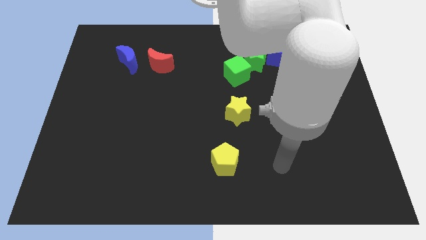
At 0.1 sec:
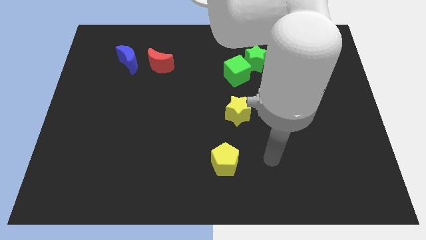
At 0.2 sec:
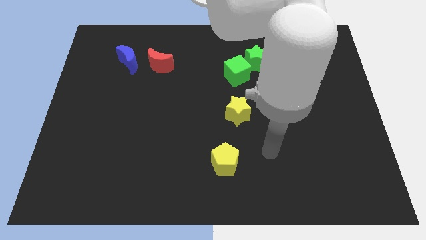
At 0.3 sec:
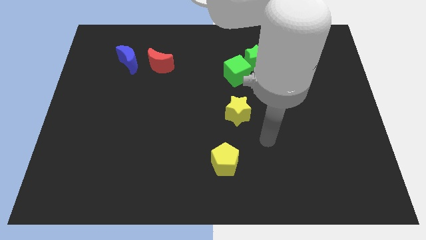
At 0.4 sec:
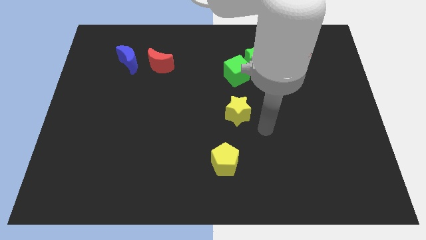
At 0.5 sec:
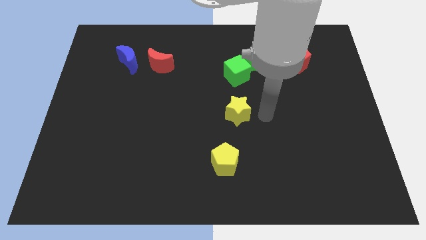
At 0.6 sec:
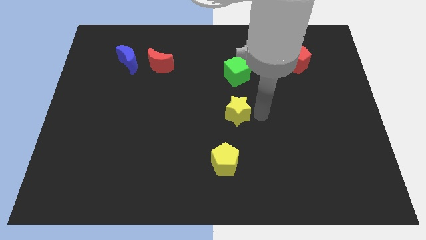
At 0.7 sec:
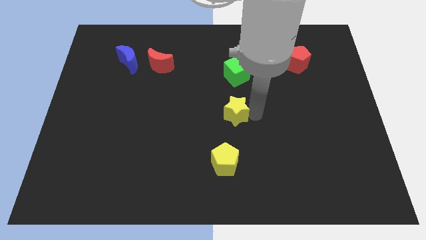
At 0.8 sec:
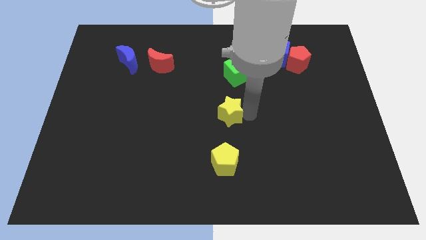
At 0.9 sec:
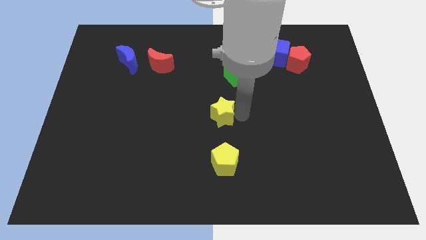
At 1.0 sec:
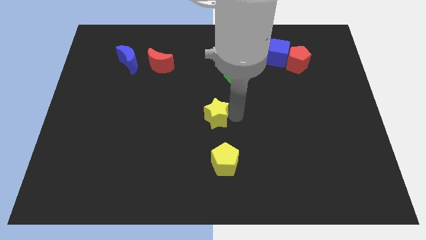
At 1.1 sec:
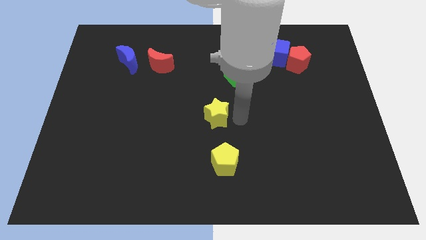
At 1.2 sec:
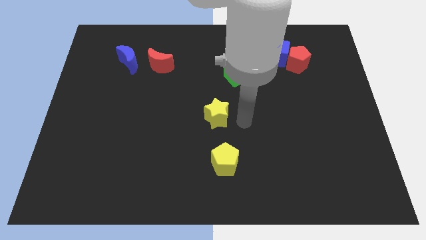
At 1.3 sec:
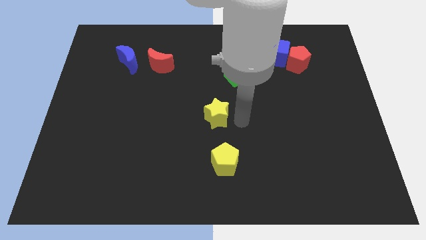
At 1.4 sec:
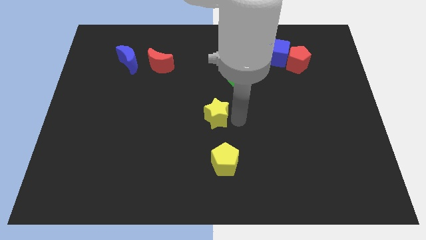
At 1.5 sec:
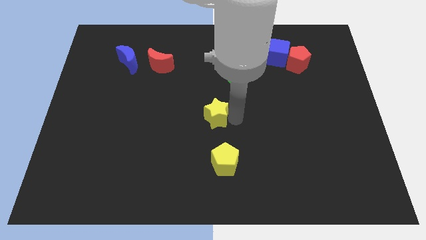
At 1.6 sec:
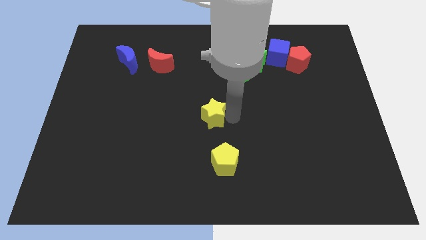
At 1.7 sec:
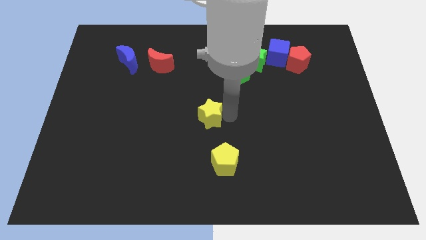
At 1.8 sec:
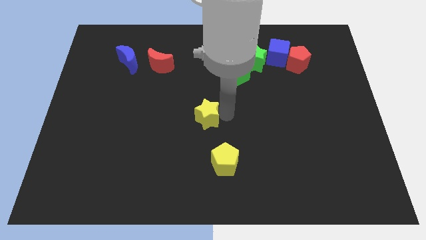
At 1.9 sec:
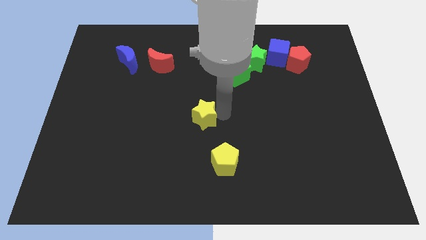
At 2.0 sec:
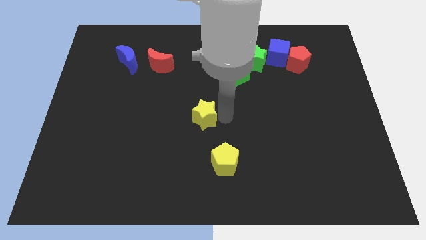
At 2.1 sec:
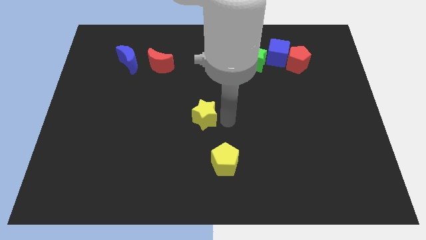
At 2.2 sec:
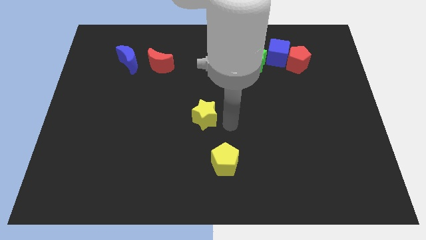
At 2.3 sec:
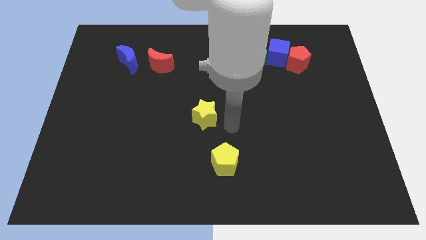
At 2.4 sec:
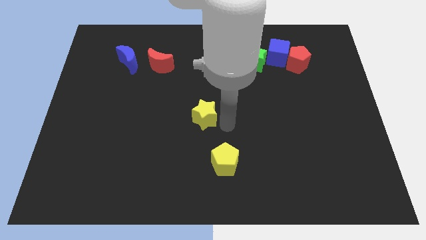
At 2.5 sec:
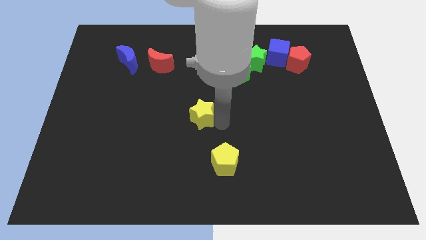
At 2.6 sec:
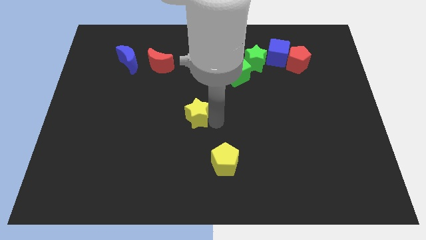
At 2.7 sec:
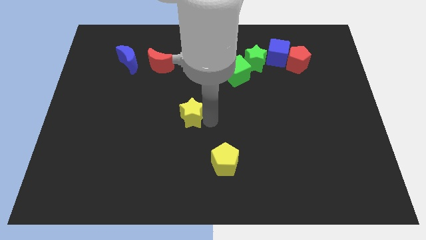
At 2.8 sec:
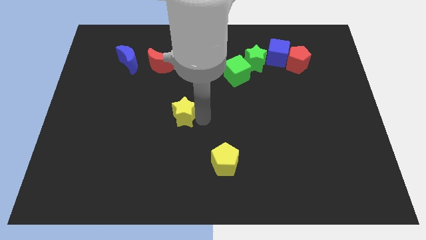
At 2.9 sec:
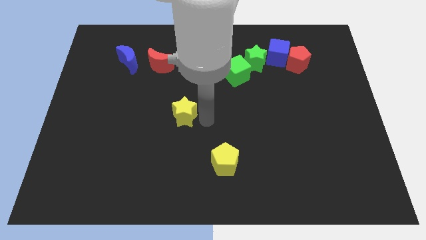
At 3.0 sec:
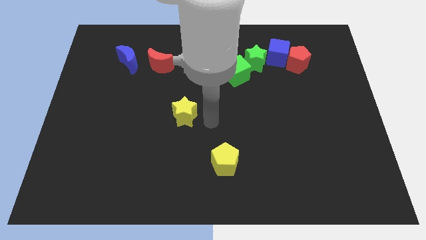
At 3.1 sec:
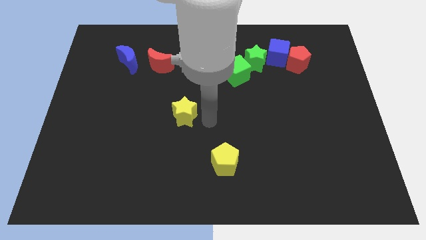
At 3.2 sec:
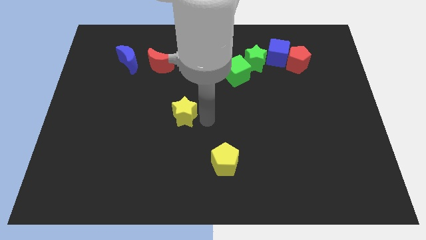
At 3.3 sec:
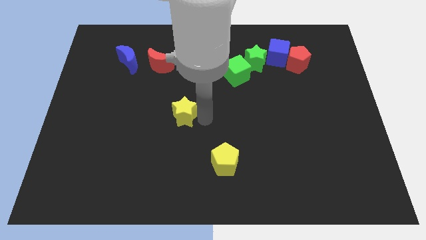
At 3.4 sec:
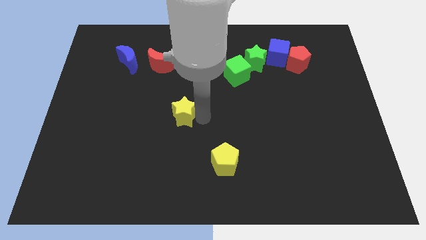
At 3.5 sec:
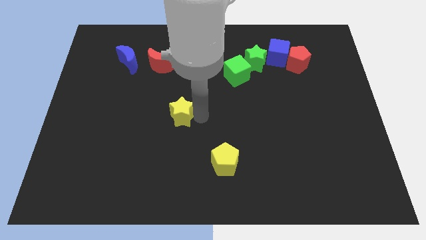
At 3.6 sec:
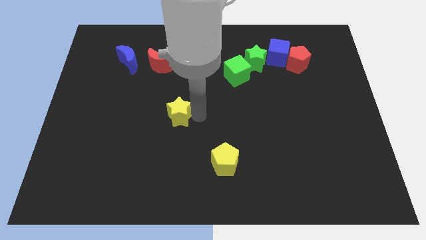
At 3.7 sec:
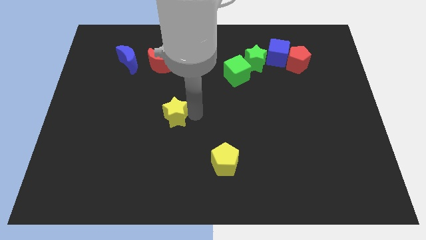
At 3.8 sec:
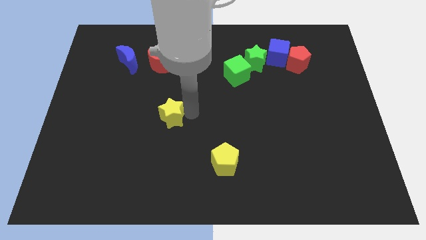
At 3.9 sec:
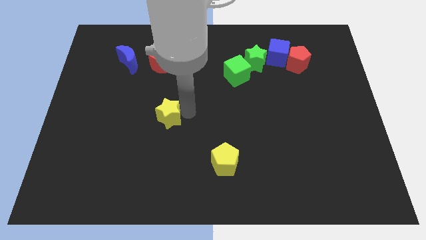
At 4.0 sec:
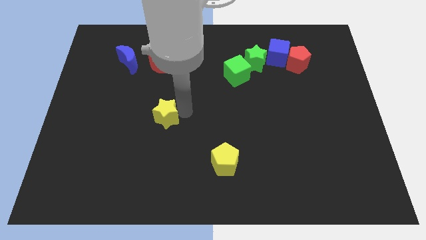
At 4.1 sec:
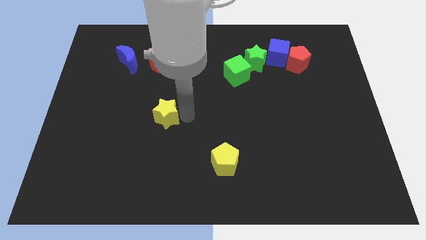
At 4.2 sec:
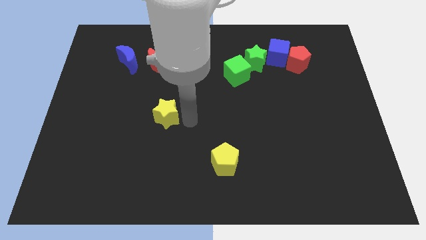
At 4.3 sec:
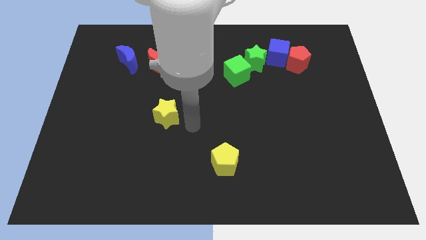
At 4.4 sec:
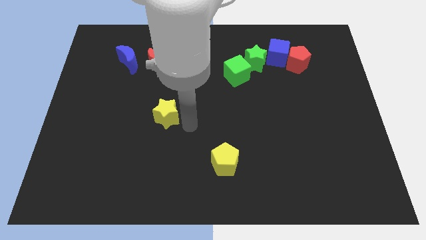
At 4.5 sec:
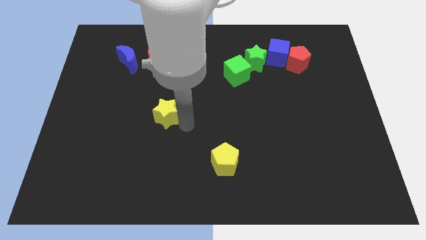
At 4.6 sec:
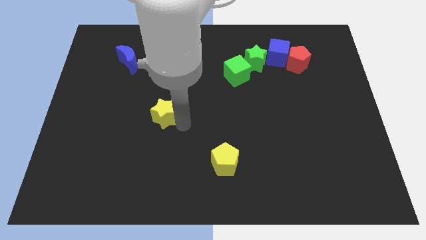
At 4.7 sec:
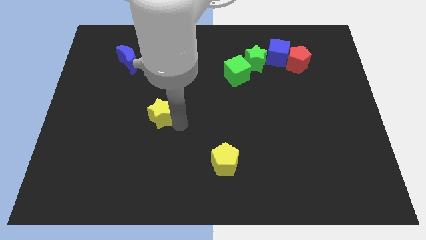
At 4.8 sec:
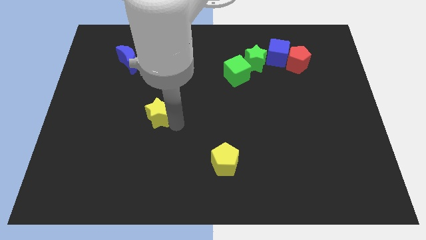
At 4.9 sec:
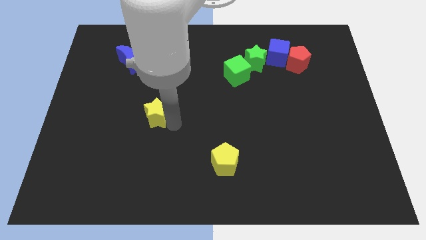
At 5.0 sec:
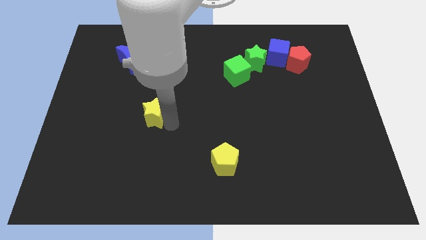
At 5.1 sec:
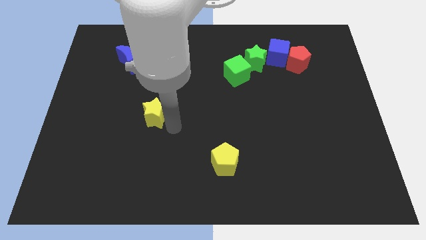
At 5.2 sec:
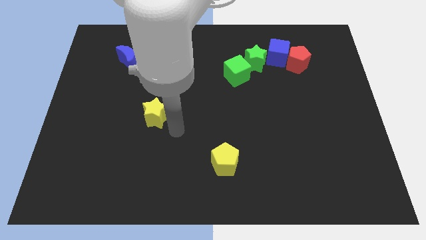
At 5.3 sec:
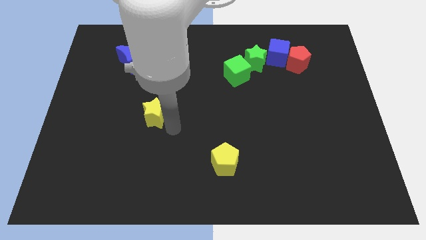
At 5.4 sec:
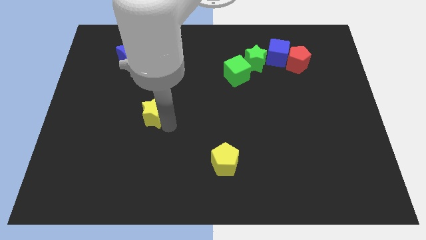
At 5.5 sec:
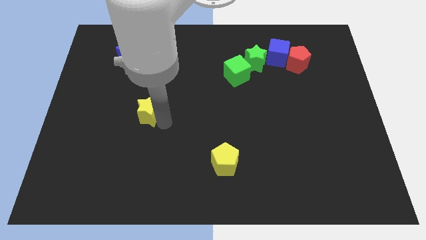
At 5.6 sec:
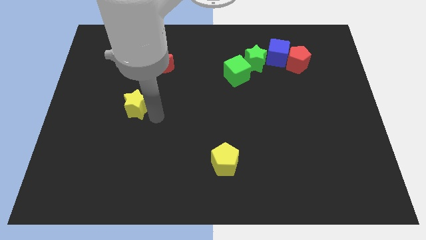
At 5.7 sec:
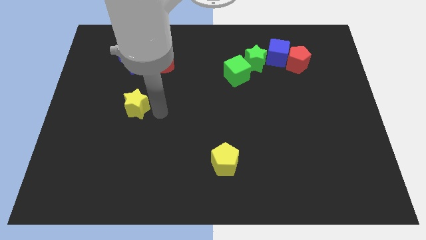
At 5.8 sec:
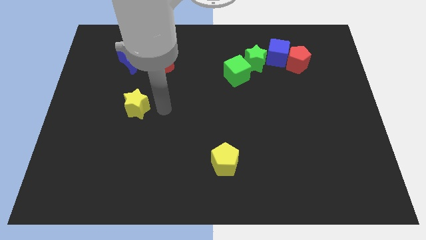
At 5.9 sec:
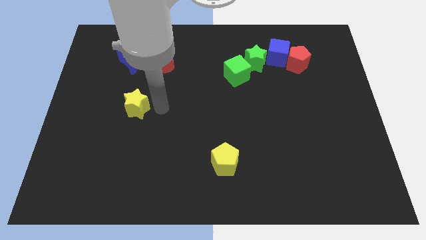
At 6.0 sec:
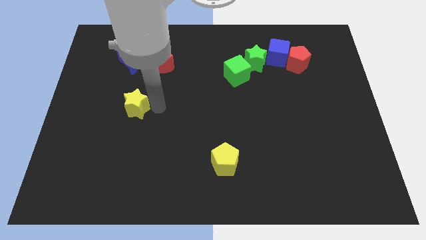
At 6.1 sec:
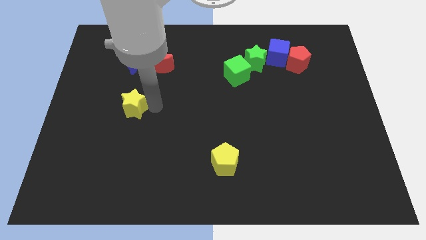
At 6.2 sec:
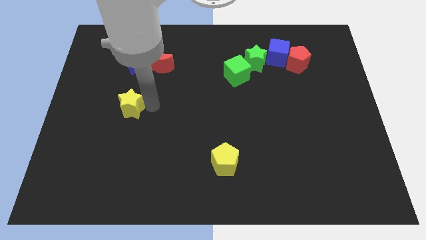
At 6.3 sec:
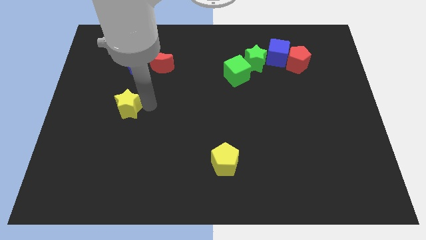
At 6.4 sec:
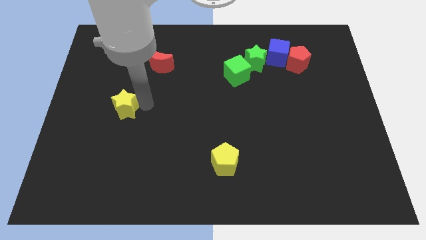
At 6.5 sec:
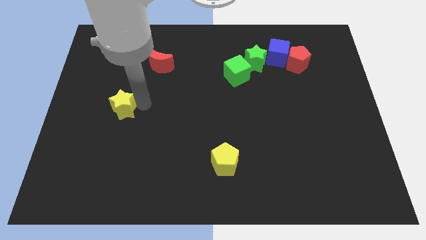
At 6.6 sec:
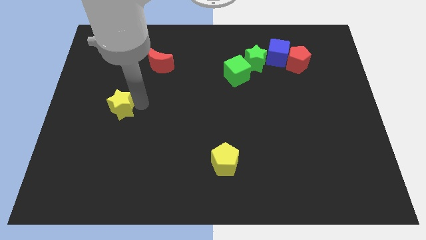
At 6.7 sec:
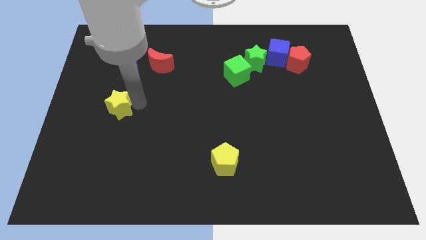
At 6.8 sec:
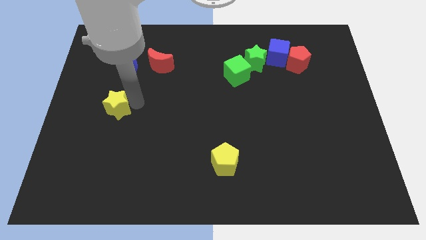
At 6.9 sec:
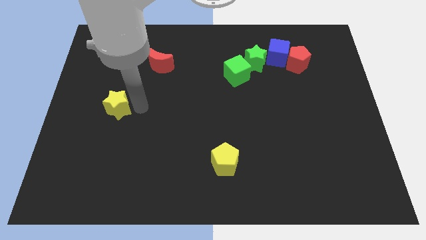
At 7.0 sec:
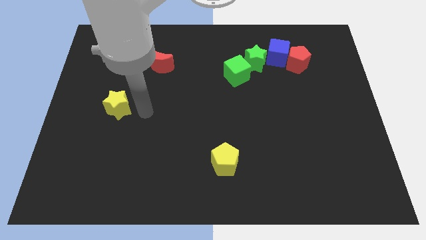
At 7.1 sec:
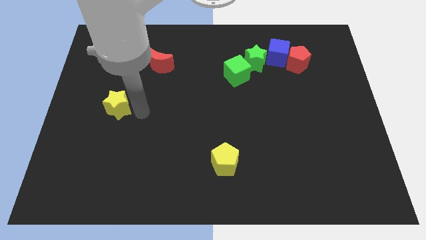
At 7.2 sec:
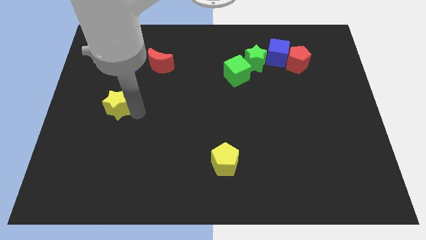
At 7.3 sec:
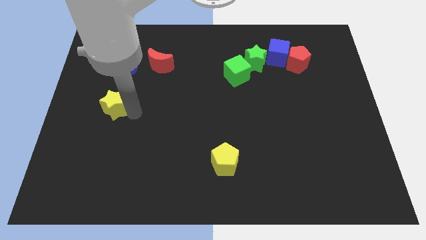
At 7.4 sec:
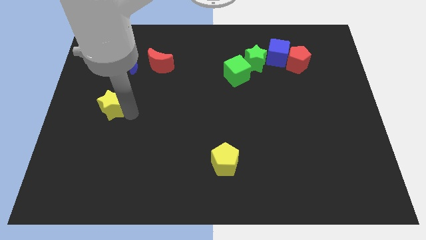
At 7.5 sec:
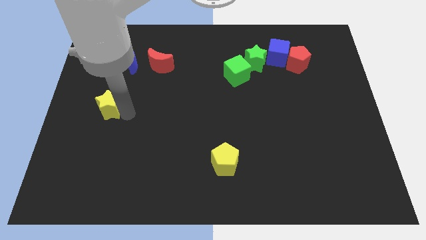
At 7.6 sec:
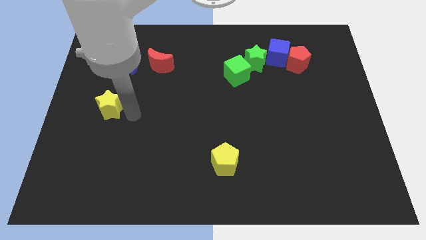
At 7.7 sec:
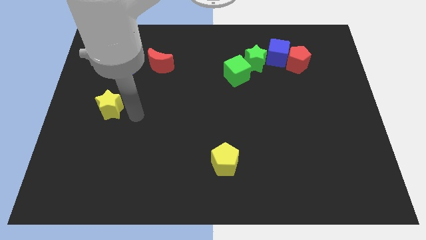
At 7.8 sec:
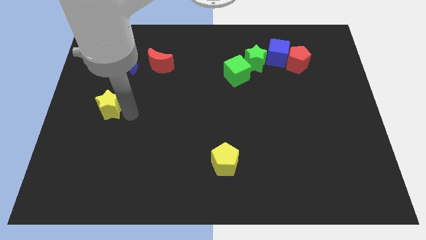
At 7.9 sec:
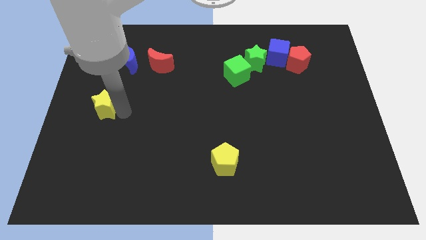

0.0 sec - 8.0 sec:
slide the yellow star to the left side
